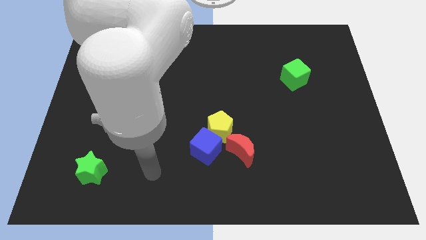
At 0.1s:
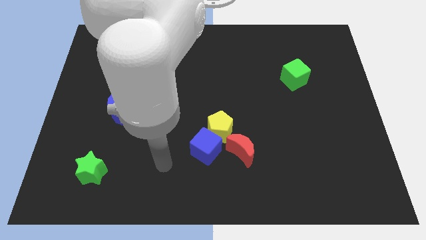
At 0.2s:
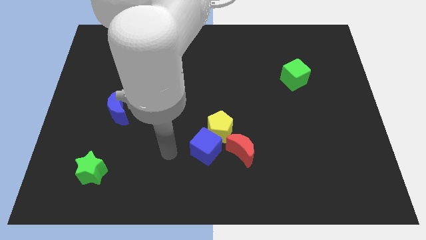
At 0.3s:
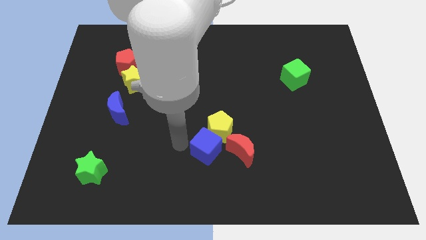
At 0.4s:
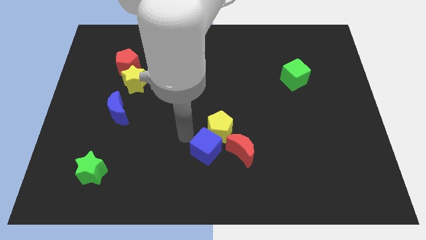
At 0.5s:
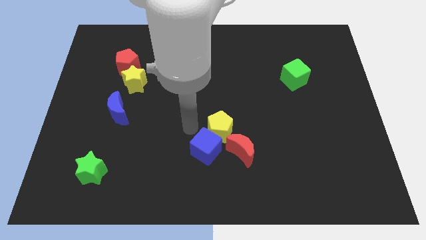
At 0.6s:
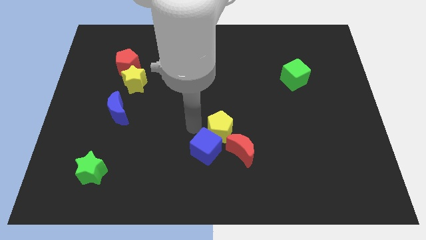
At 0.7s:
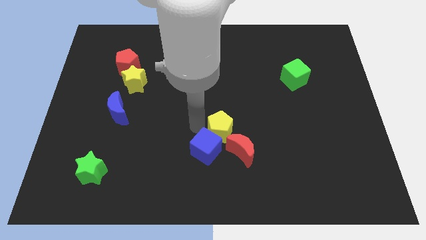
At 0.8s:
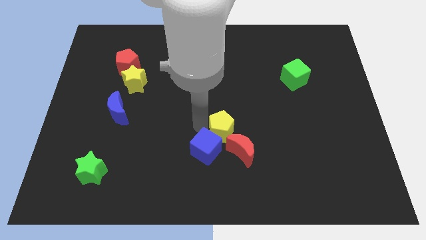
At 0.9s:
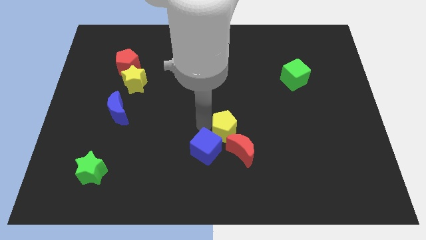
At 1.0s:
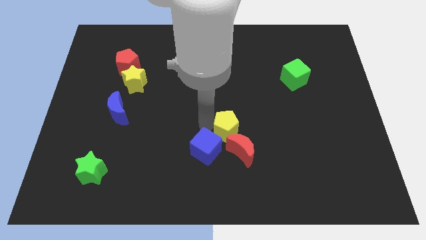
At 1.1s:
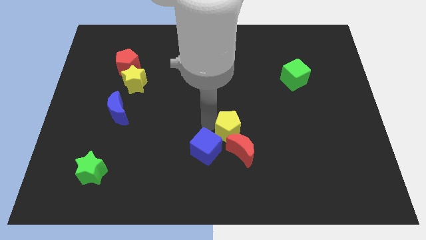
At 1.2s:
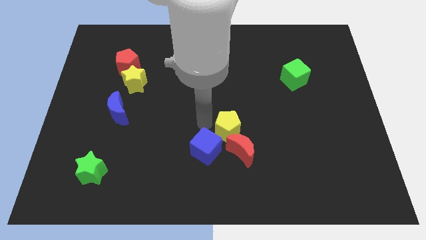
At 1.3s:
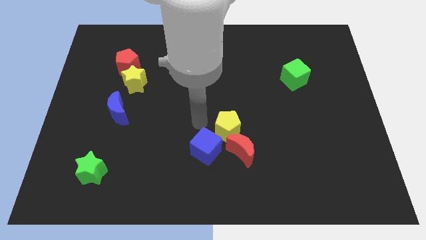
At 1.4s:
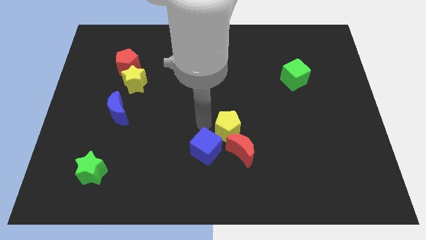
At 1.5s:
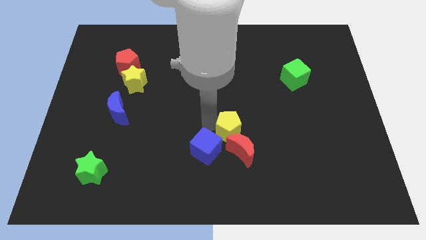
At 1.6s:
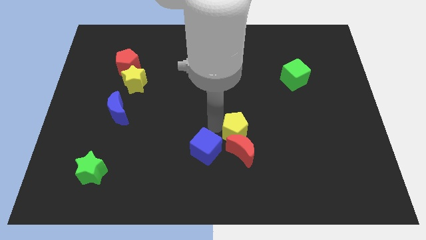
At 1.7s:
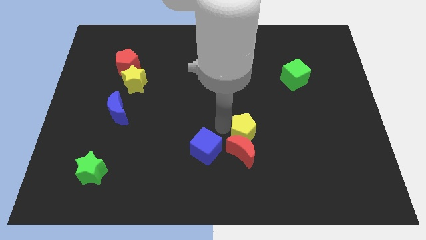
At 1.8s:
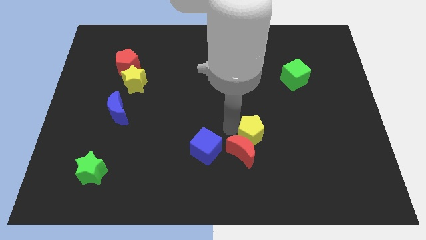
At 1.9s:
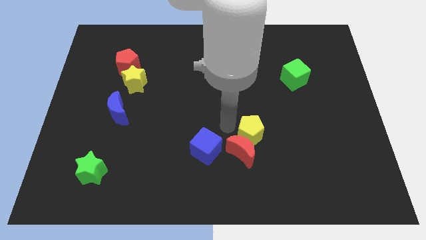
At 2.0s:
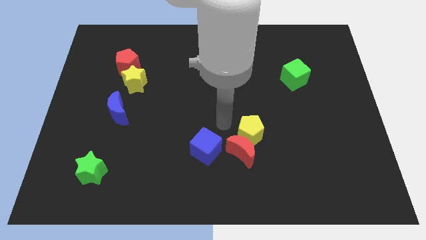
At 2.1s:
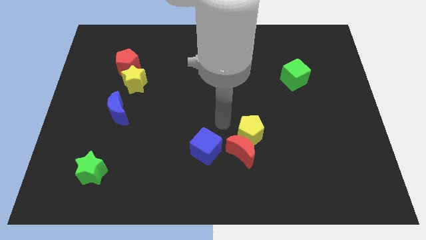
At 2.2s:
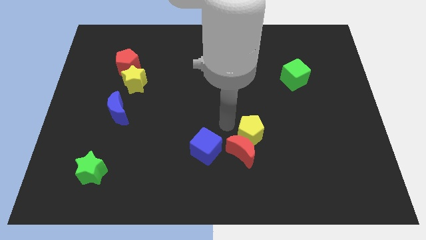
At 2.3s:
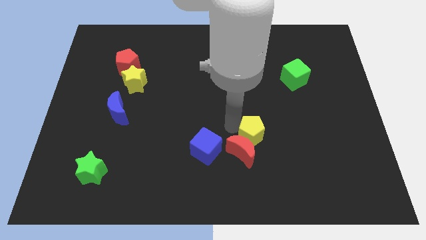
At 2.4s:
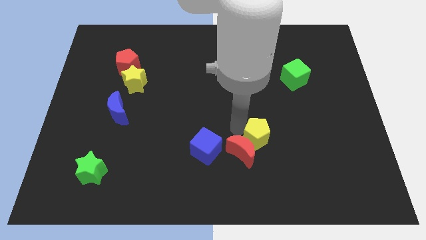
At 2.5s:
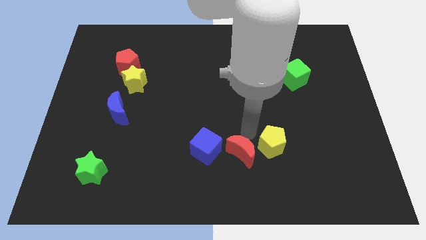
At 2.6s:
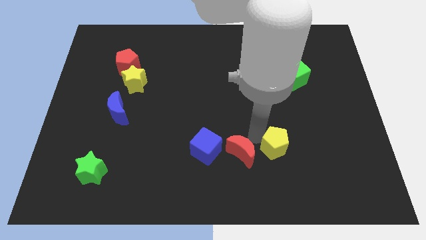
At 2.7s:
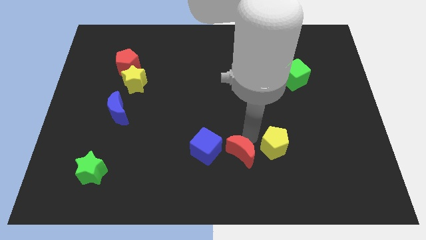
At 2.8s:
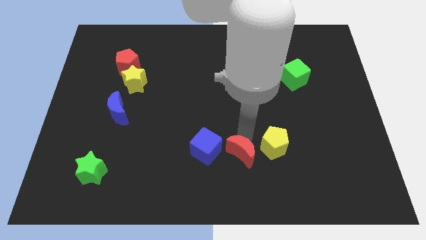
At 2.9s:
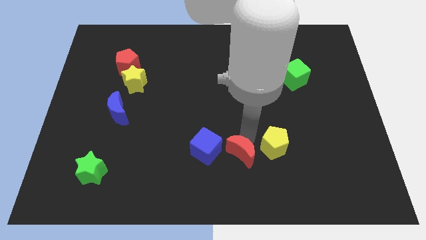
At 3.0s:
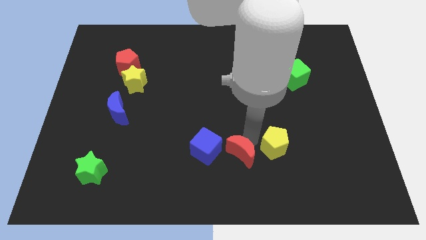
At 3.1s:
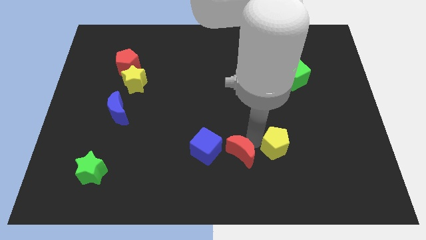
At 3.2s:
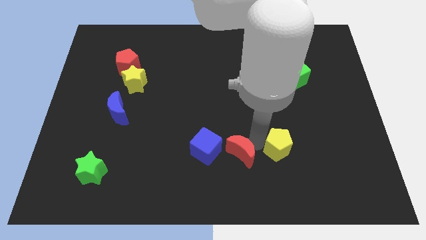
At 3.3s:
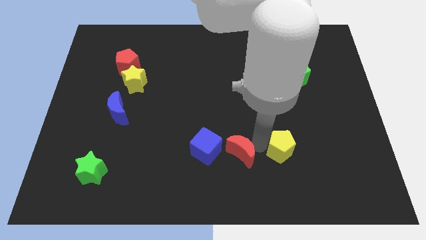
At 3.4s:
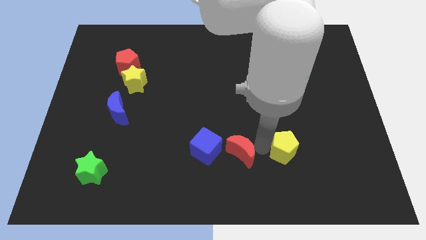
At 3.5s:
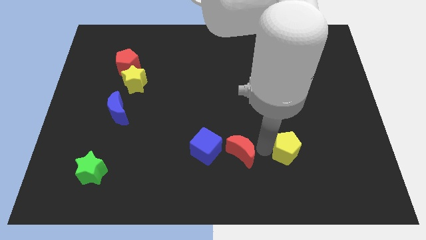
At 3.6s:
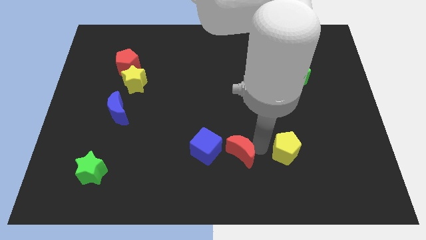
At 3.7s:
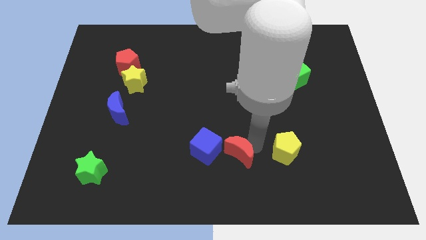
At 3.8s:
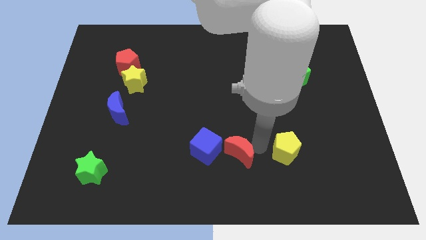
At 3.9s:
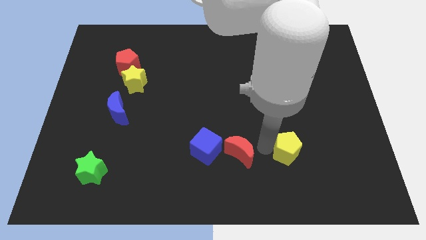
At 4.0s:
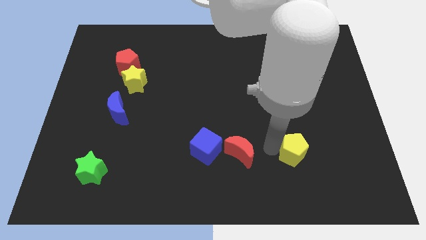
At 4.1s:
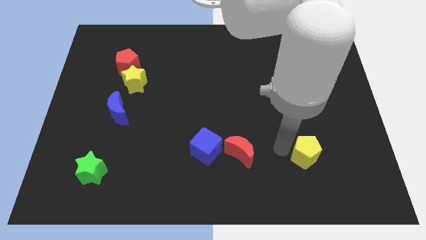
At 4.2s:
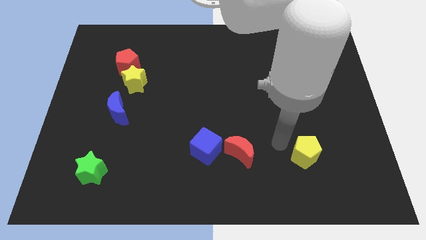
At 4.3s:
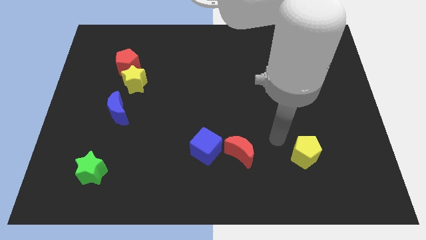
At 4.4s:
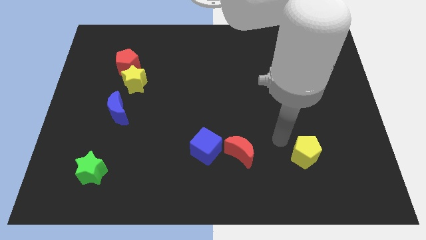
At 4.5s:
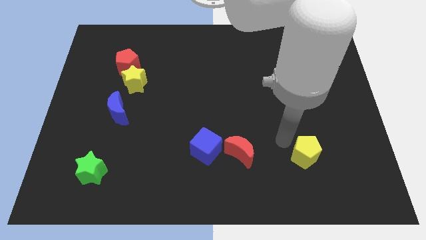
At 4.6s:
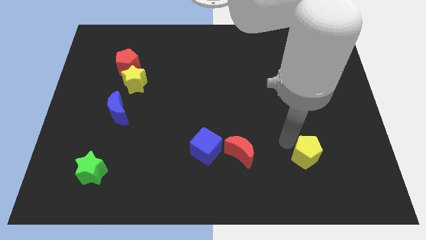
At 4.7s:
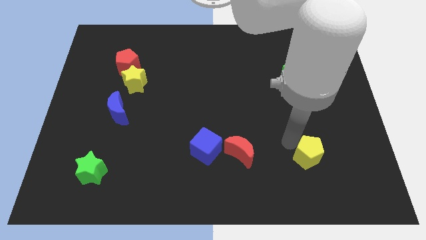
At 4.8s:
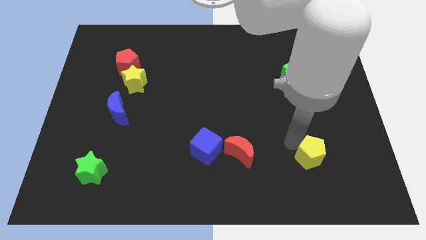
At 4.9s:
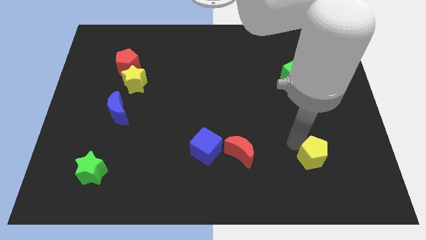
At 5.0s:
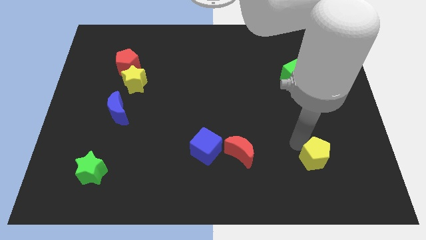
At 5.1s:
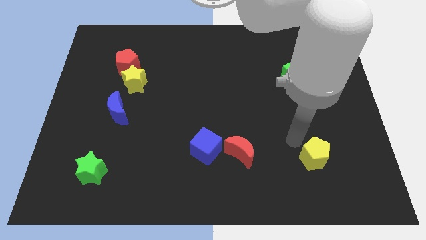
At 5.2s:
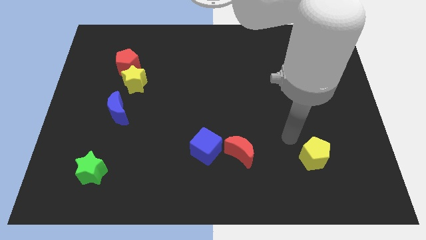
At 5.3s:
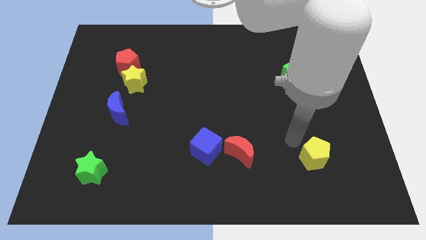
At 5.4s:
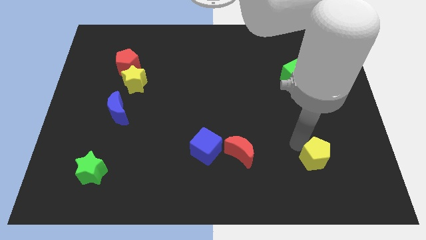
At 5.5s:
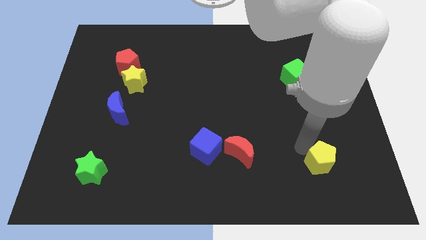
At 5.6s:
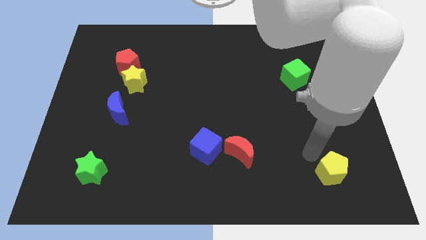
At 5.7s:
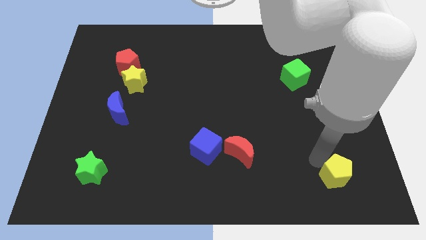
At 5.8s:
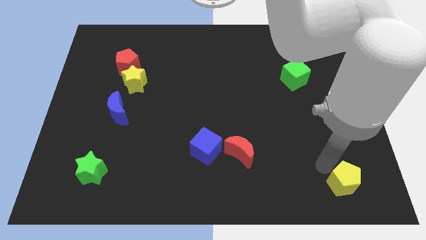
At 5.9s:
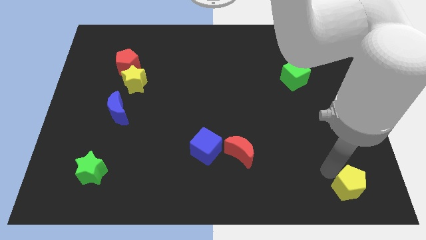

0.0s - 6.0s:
move the yellow pentagon to the lower right corner

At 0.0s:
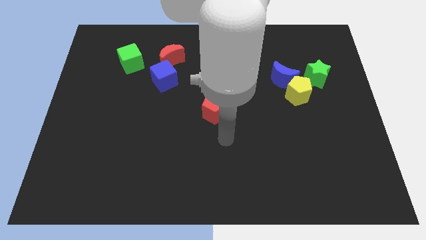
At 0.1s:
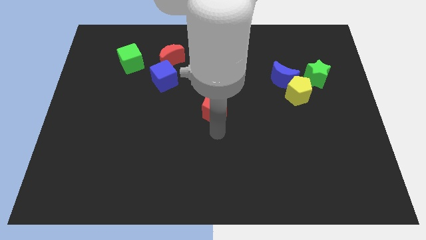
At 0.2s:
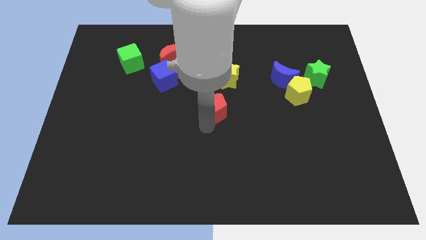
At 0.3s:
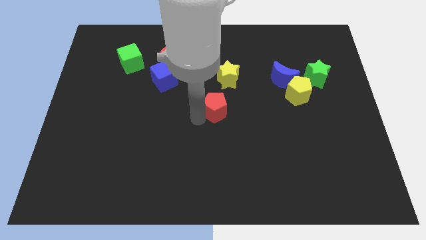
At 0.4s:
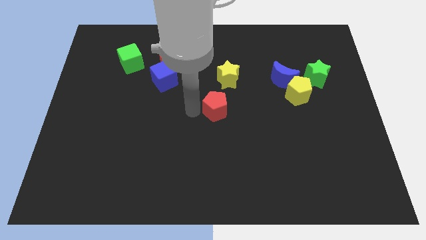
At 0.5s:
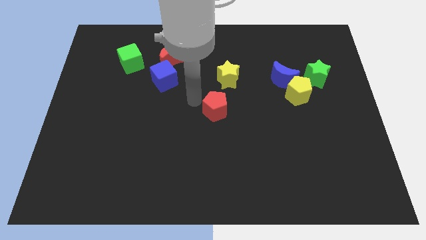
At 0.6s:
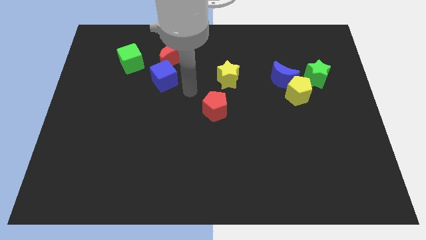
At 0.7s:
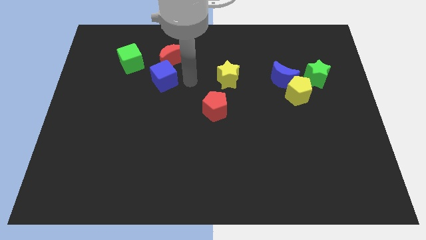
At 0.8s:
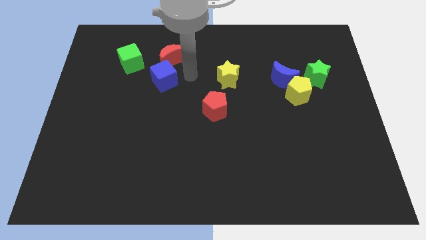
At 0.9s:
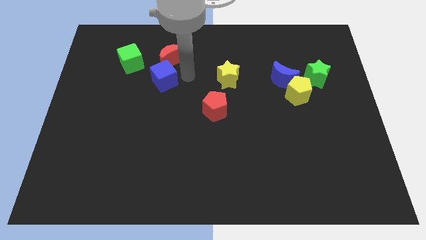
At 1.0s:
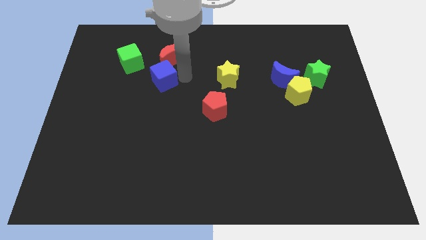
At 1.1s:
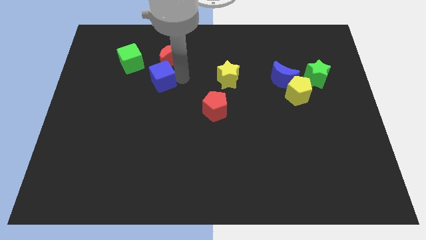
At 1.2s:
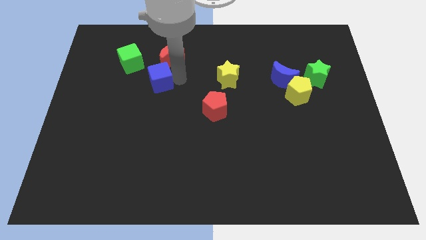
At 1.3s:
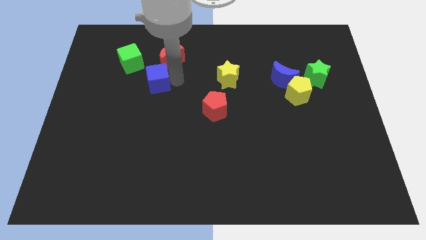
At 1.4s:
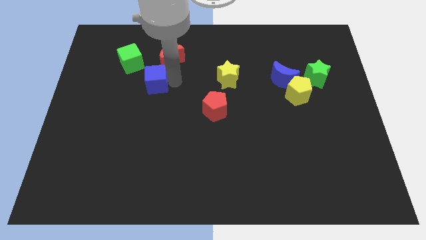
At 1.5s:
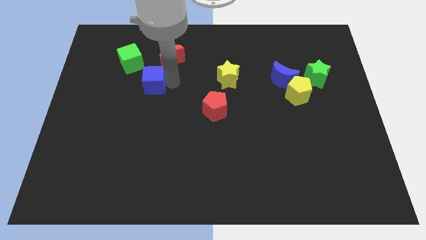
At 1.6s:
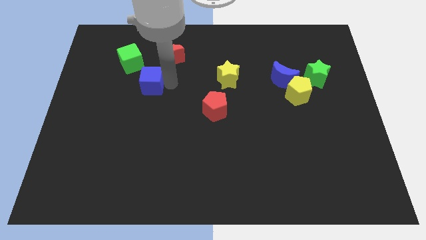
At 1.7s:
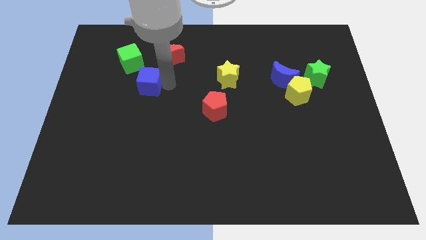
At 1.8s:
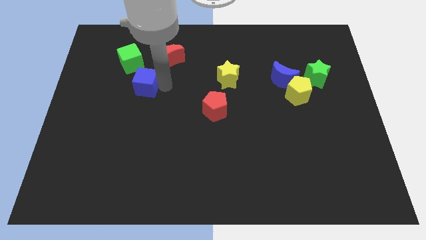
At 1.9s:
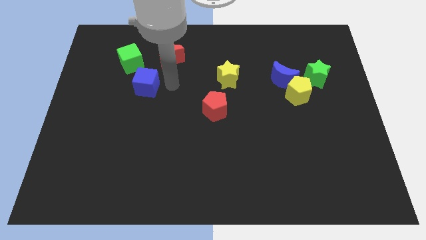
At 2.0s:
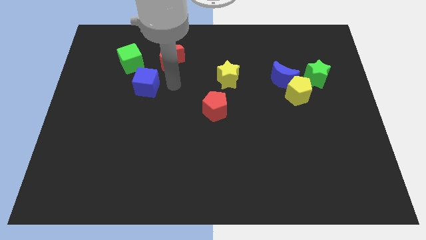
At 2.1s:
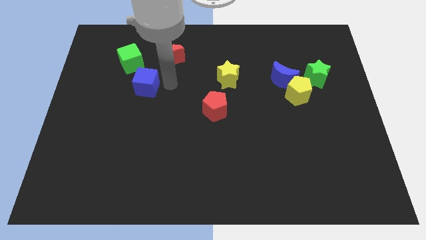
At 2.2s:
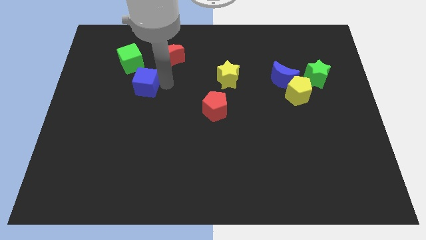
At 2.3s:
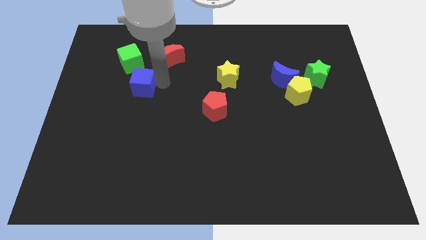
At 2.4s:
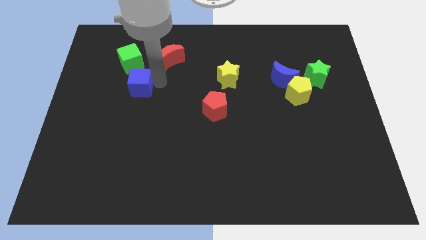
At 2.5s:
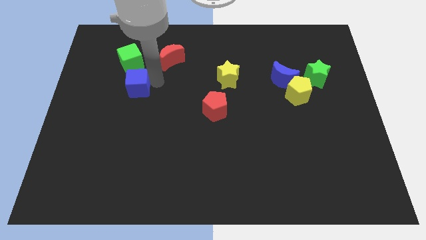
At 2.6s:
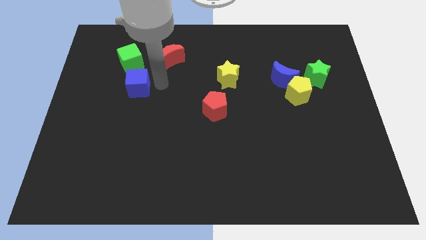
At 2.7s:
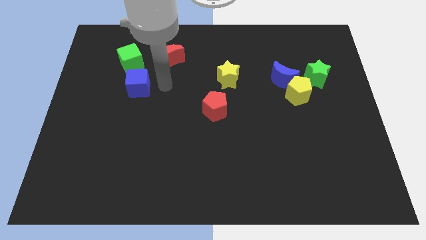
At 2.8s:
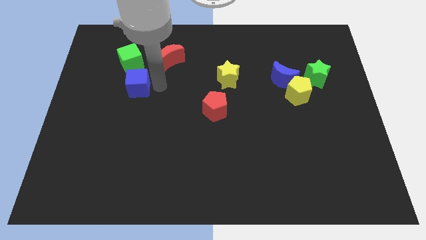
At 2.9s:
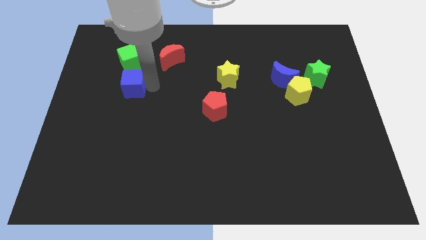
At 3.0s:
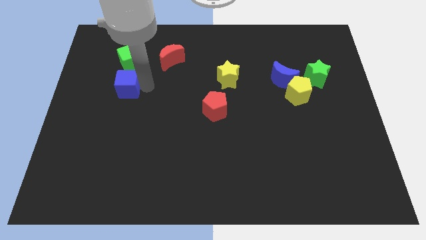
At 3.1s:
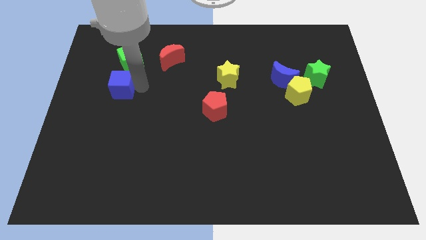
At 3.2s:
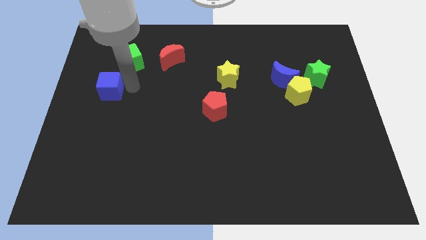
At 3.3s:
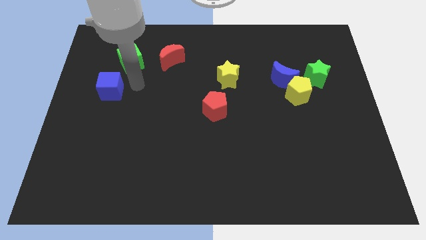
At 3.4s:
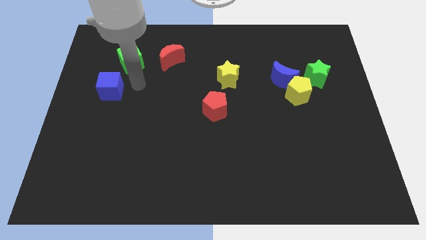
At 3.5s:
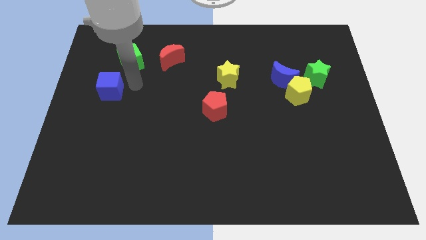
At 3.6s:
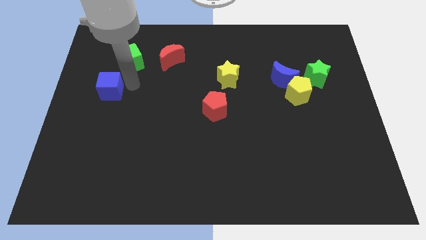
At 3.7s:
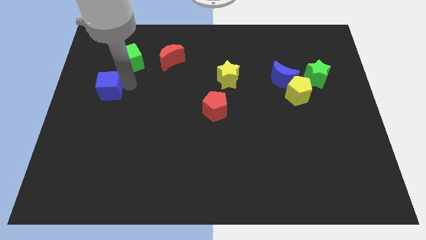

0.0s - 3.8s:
move the blue cube to the center left
